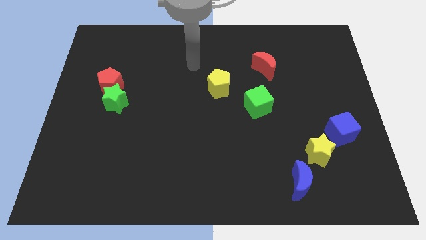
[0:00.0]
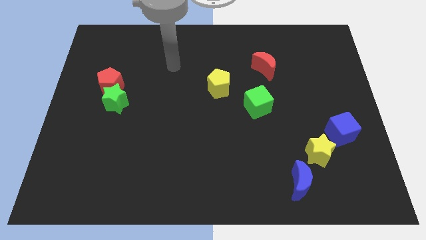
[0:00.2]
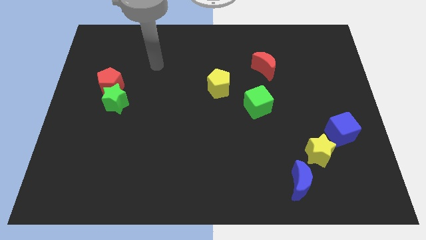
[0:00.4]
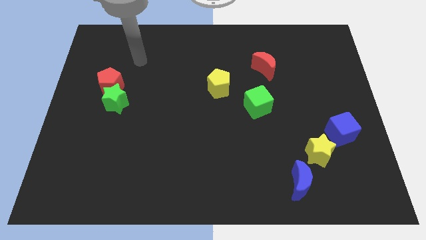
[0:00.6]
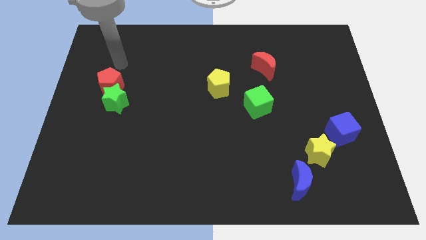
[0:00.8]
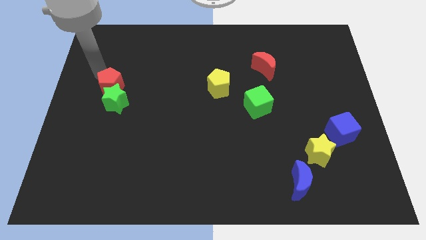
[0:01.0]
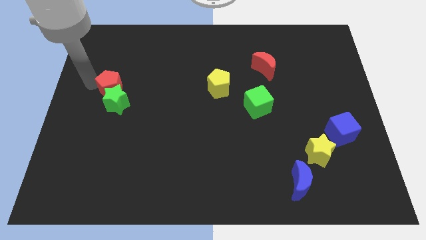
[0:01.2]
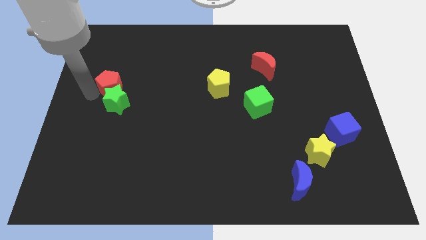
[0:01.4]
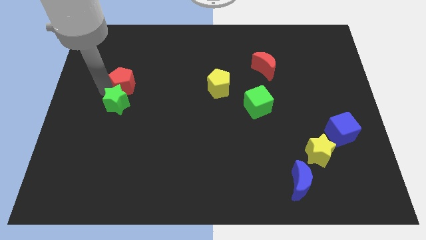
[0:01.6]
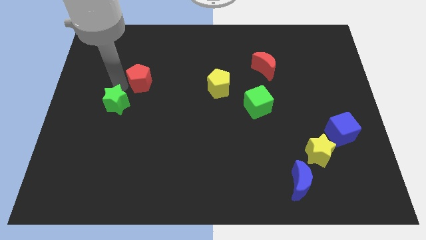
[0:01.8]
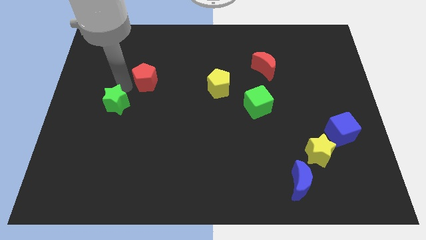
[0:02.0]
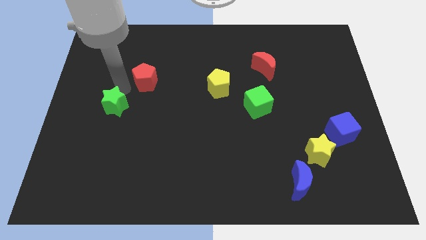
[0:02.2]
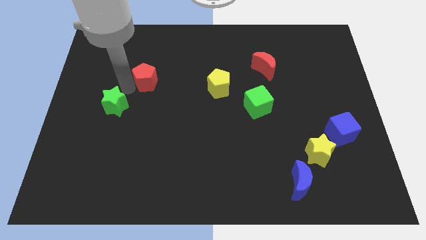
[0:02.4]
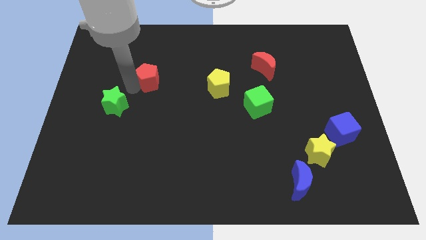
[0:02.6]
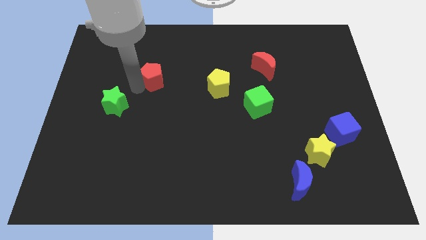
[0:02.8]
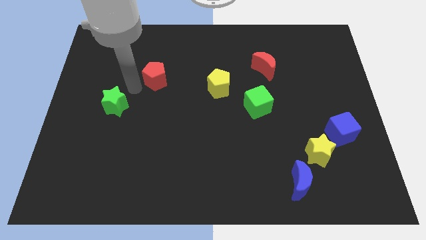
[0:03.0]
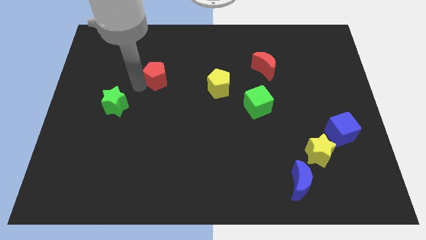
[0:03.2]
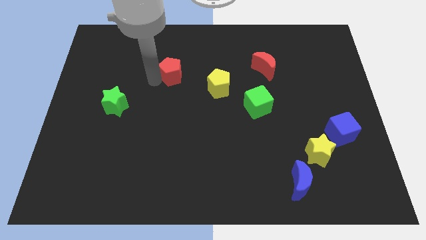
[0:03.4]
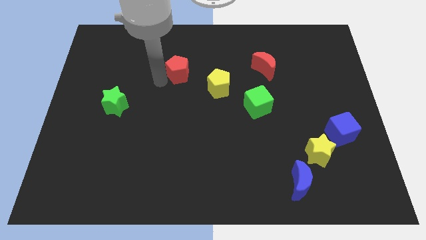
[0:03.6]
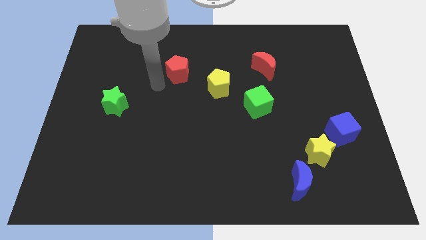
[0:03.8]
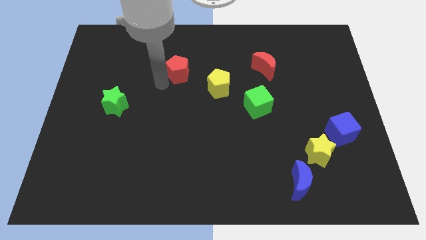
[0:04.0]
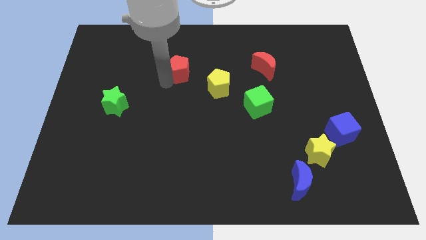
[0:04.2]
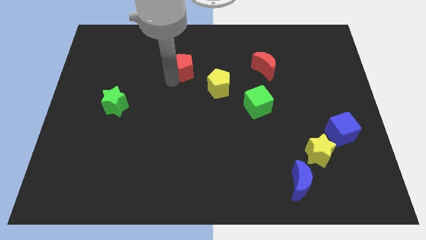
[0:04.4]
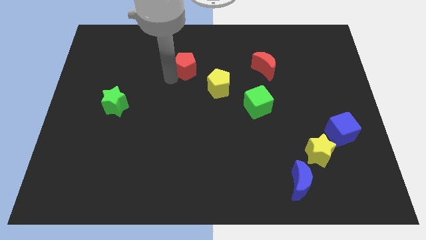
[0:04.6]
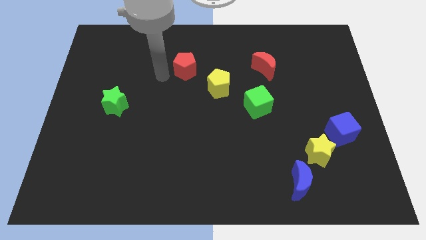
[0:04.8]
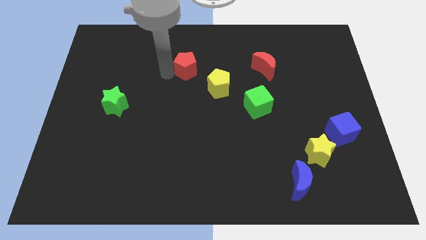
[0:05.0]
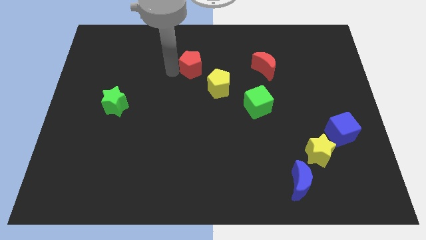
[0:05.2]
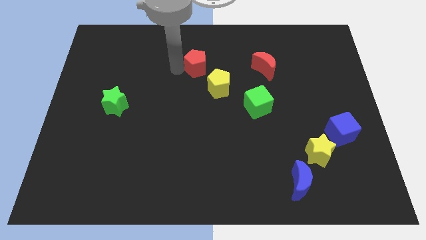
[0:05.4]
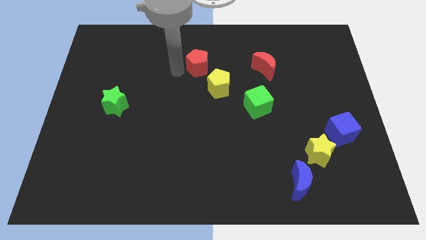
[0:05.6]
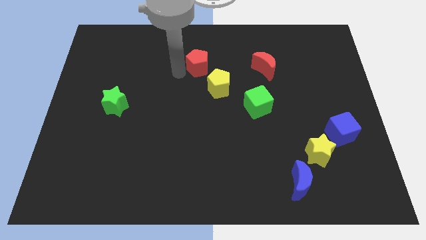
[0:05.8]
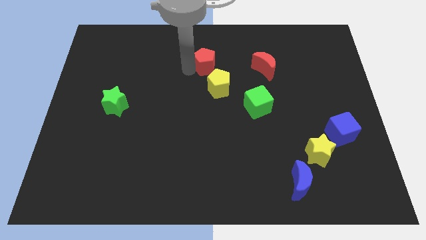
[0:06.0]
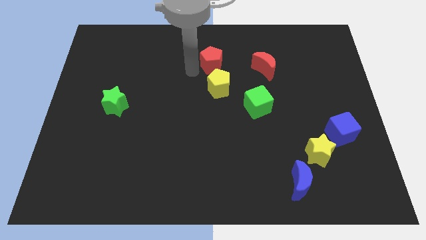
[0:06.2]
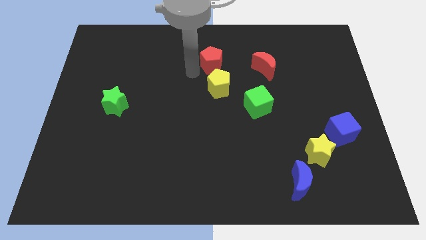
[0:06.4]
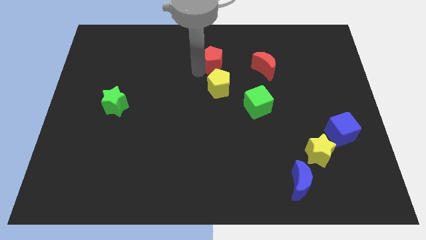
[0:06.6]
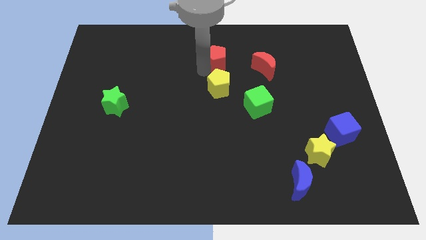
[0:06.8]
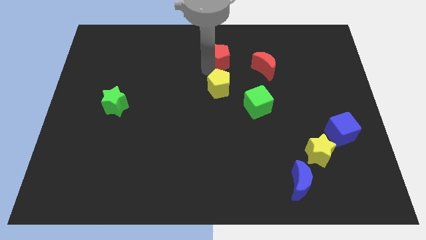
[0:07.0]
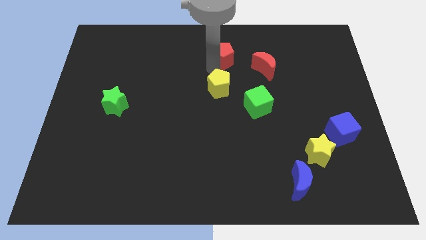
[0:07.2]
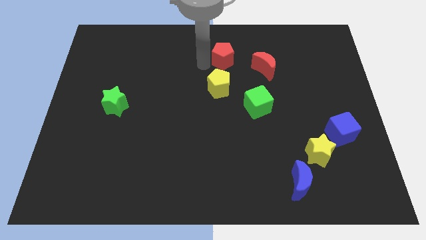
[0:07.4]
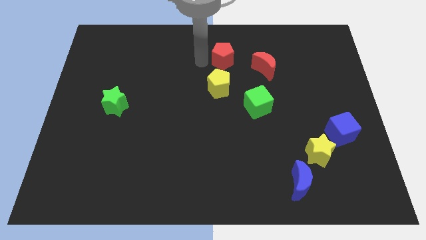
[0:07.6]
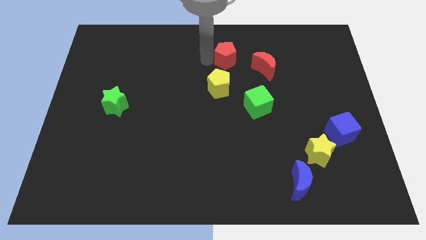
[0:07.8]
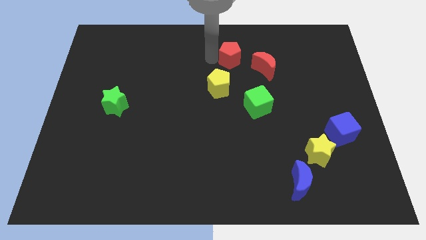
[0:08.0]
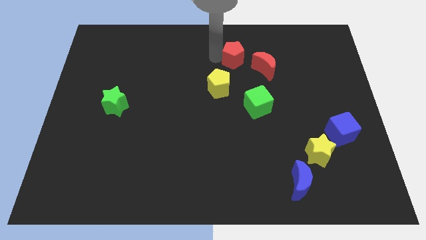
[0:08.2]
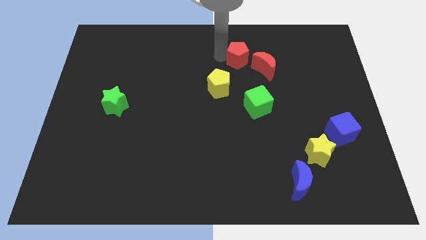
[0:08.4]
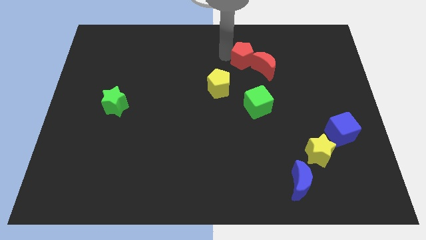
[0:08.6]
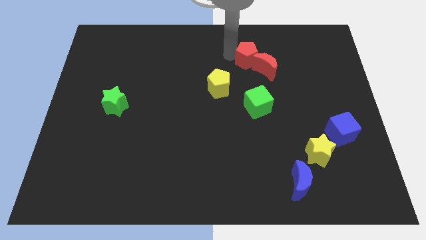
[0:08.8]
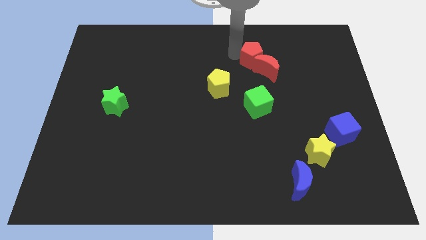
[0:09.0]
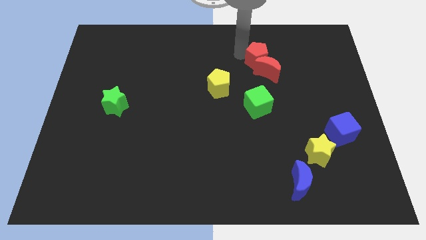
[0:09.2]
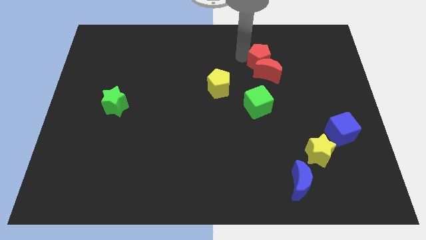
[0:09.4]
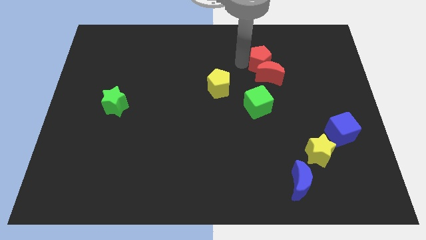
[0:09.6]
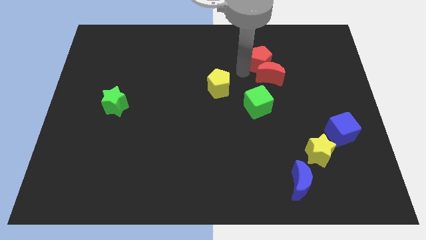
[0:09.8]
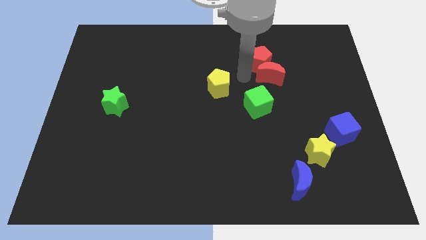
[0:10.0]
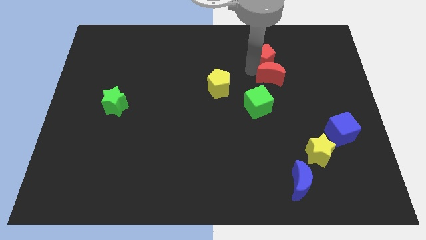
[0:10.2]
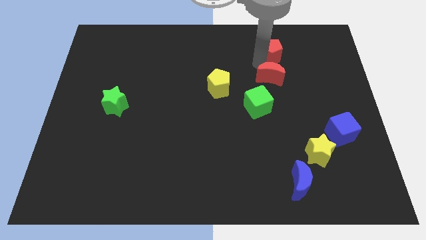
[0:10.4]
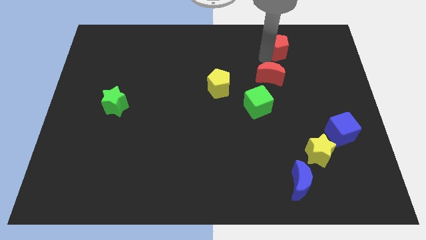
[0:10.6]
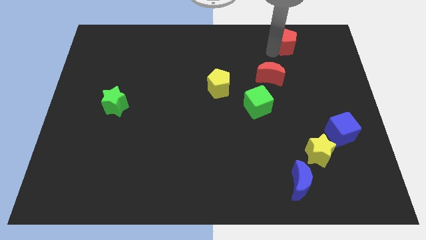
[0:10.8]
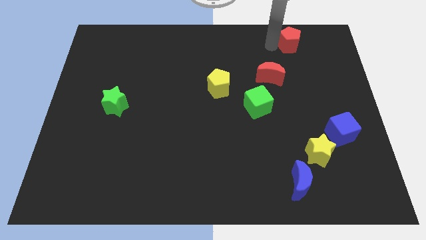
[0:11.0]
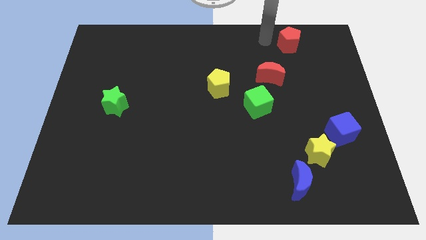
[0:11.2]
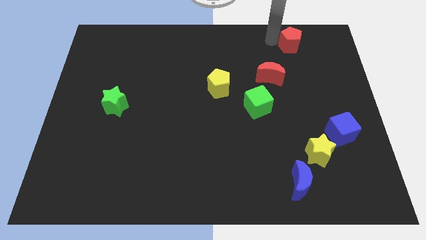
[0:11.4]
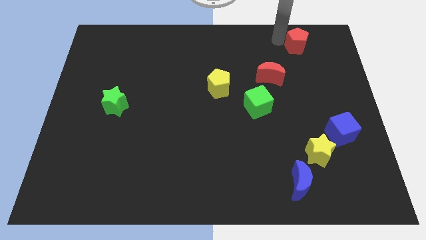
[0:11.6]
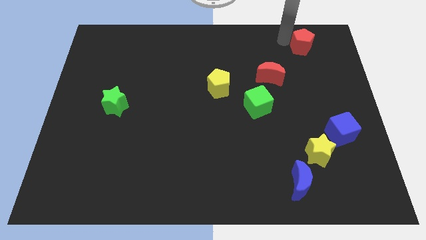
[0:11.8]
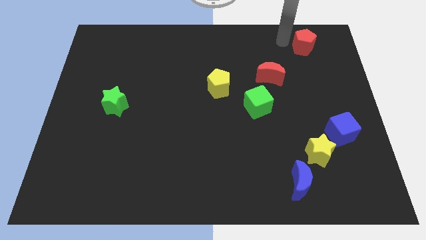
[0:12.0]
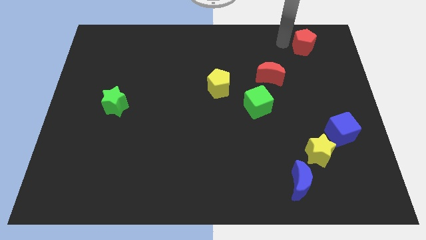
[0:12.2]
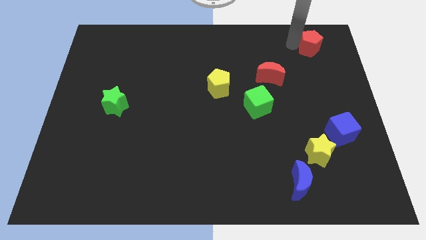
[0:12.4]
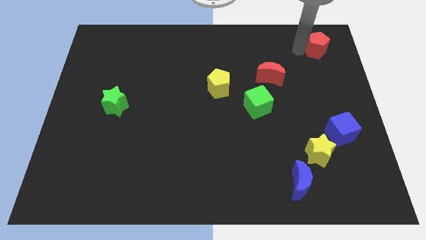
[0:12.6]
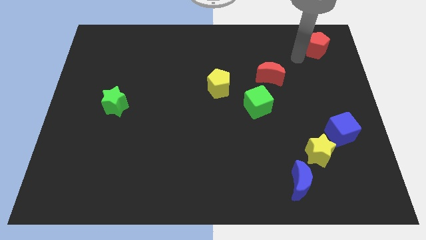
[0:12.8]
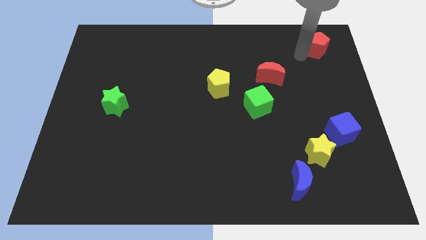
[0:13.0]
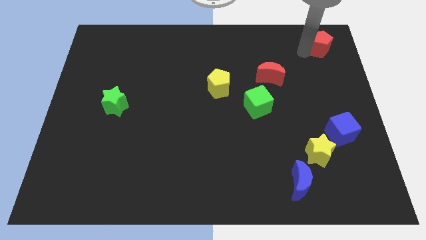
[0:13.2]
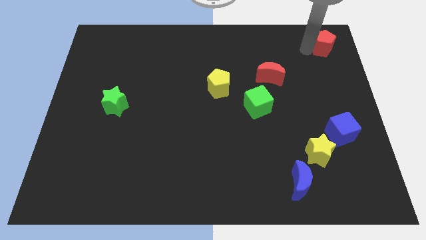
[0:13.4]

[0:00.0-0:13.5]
push the red pentagon to the top right of the board

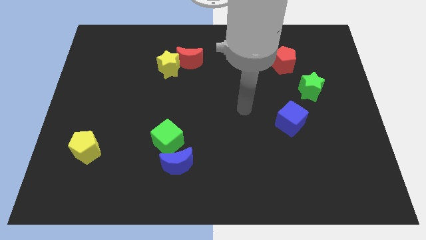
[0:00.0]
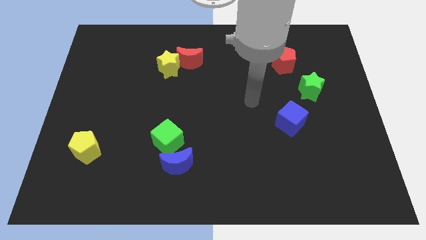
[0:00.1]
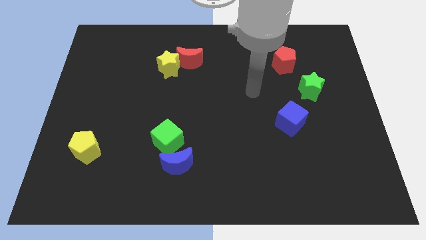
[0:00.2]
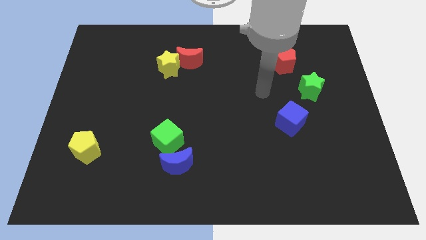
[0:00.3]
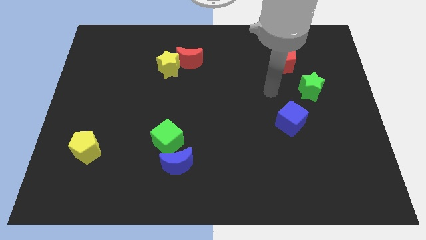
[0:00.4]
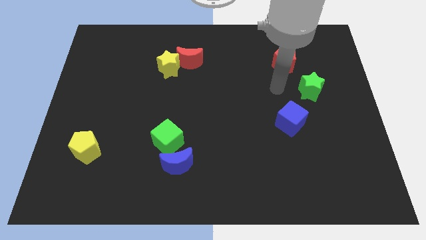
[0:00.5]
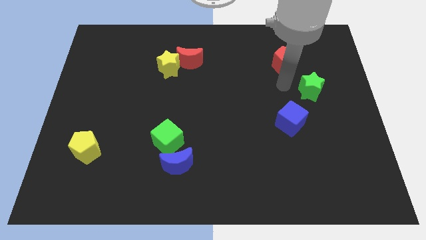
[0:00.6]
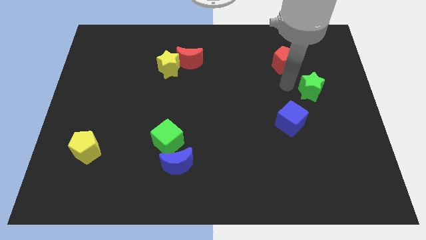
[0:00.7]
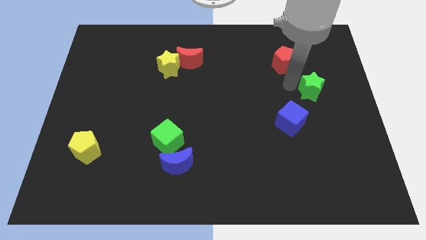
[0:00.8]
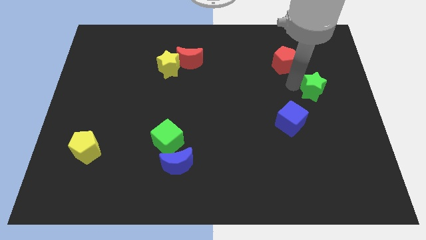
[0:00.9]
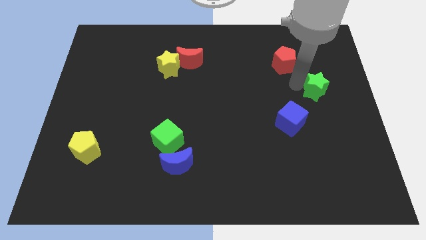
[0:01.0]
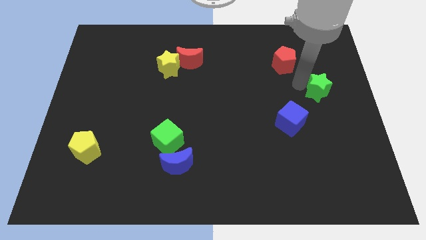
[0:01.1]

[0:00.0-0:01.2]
slide the green star to the right side of the board
